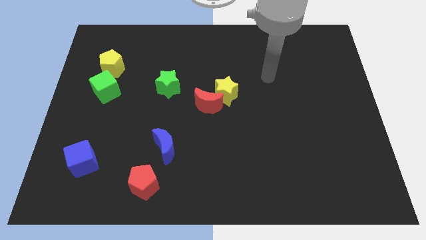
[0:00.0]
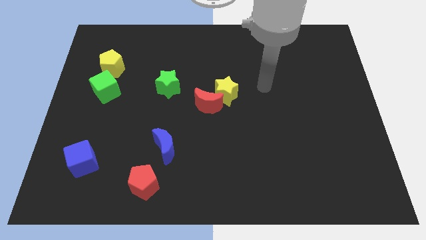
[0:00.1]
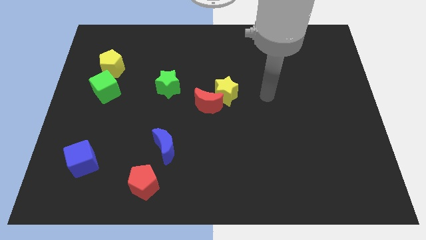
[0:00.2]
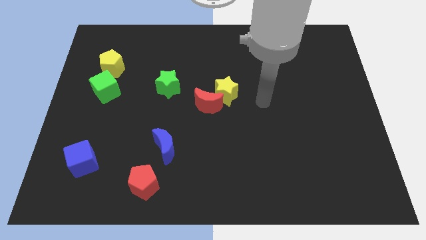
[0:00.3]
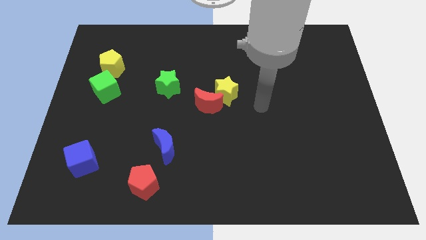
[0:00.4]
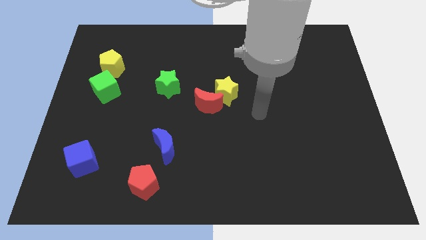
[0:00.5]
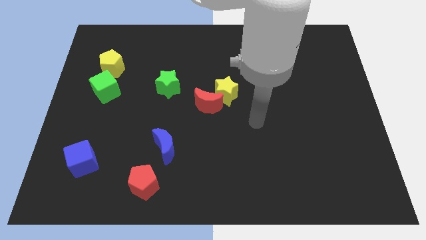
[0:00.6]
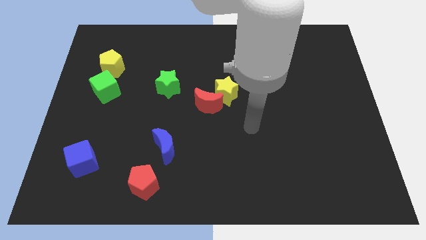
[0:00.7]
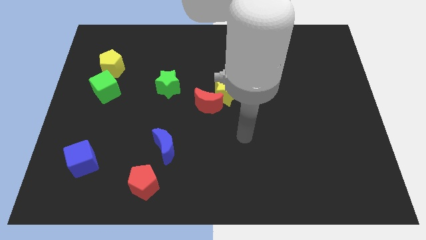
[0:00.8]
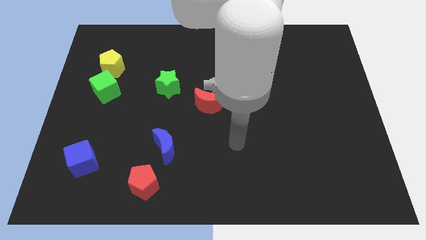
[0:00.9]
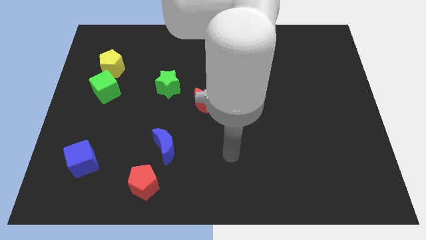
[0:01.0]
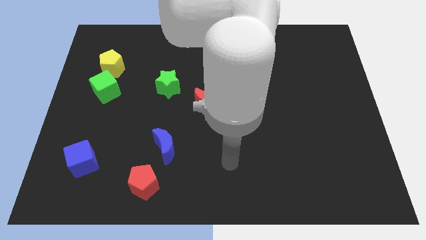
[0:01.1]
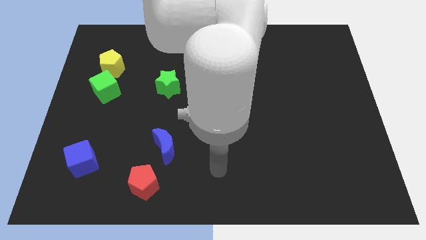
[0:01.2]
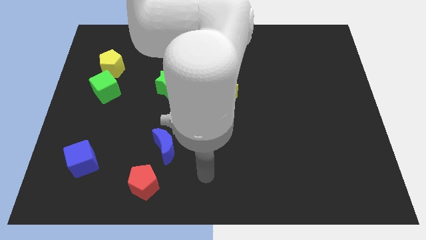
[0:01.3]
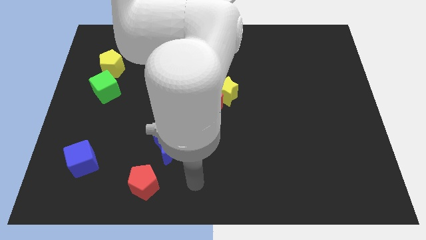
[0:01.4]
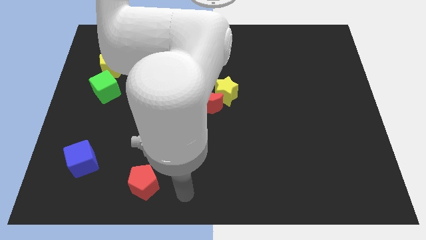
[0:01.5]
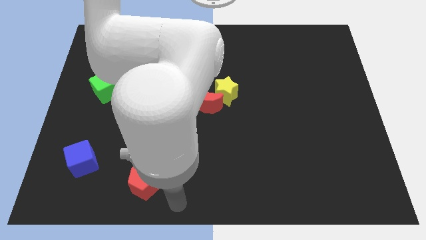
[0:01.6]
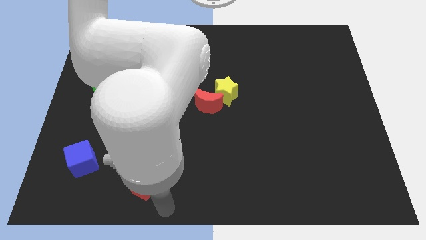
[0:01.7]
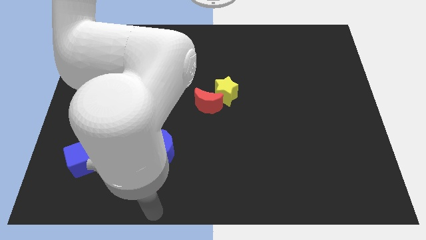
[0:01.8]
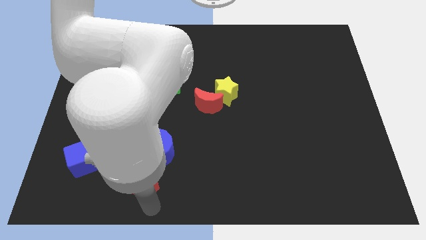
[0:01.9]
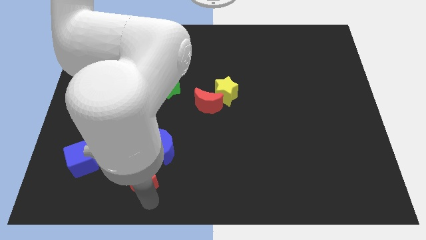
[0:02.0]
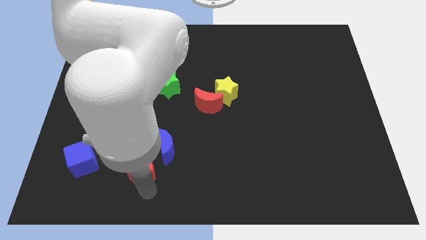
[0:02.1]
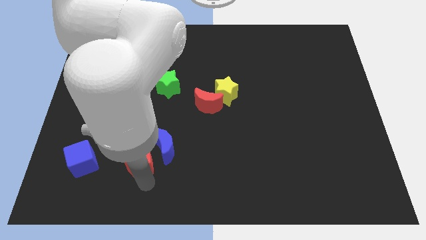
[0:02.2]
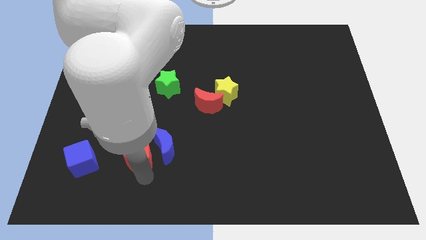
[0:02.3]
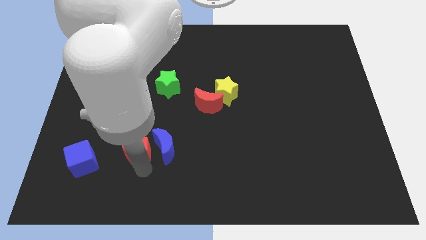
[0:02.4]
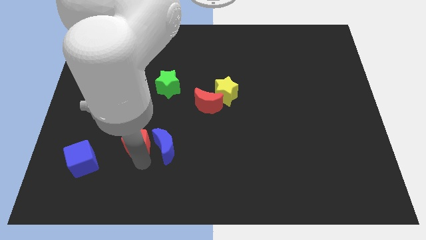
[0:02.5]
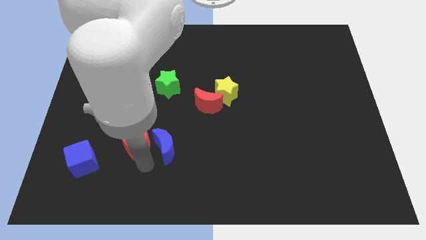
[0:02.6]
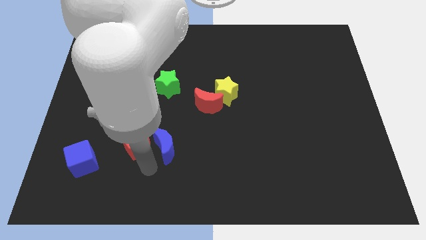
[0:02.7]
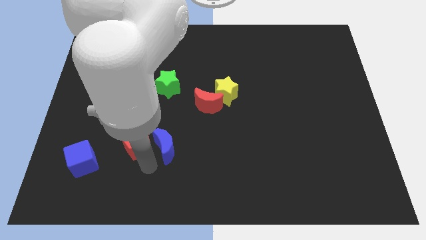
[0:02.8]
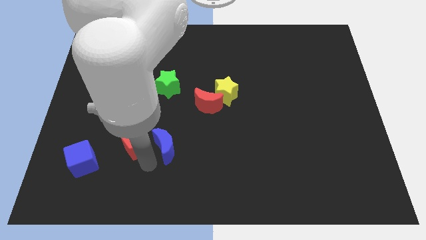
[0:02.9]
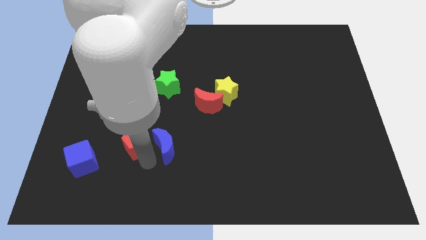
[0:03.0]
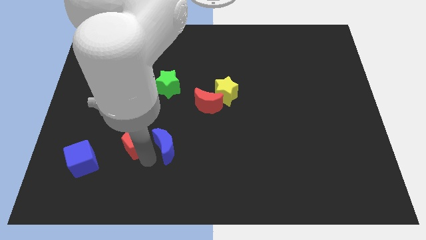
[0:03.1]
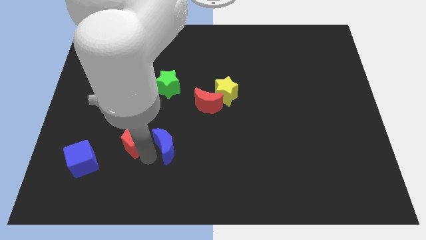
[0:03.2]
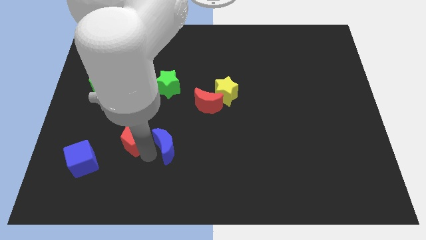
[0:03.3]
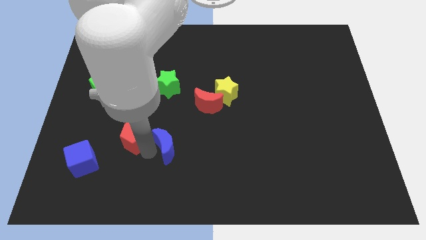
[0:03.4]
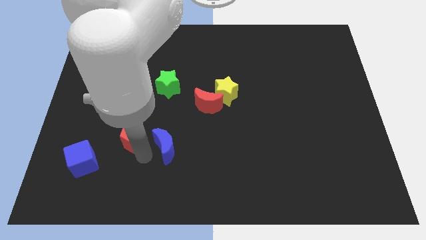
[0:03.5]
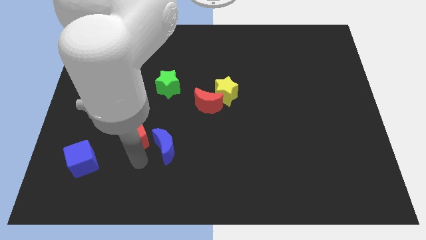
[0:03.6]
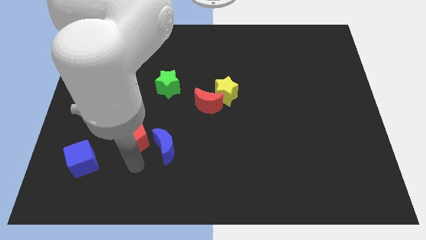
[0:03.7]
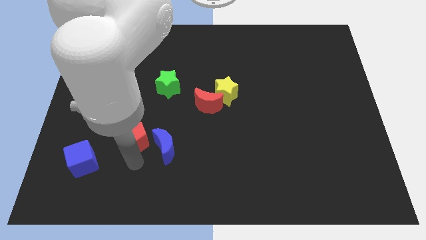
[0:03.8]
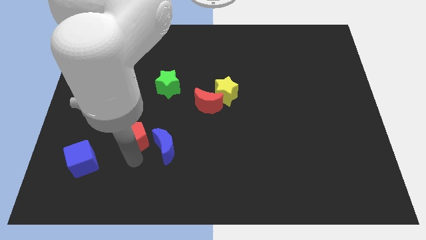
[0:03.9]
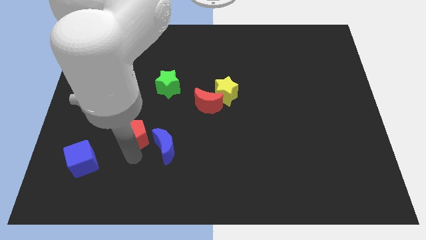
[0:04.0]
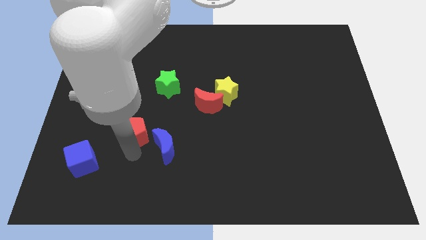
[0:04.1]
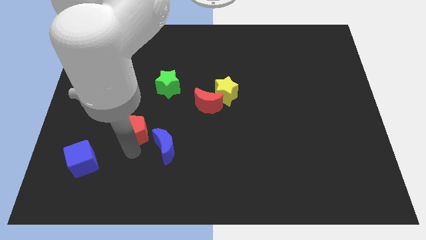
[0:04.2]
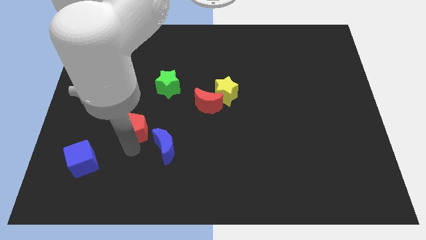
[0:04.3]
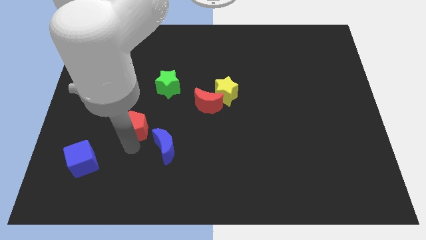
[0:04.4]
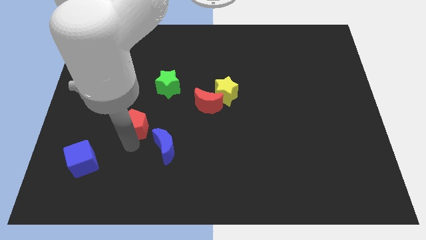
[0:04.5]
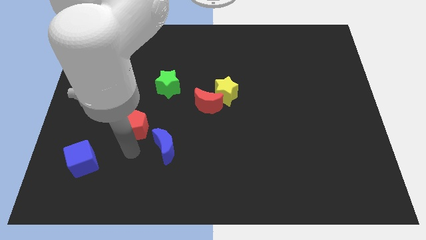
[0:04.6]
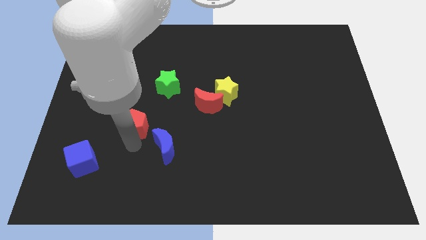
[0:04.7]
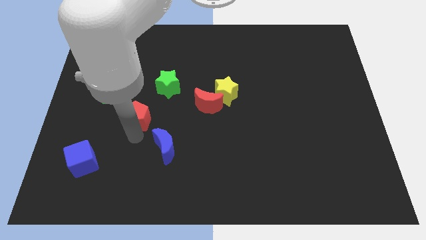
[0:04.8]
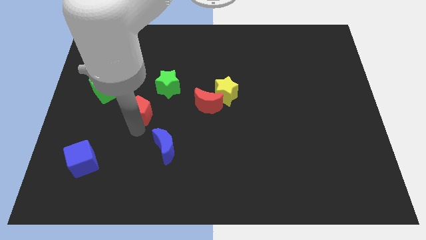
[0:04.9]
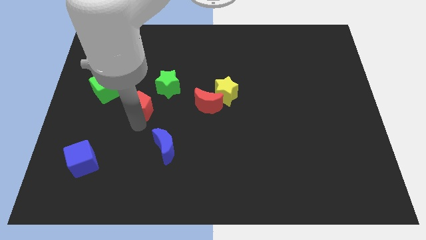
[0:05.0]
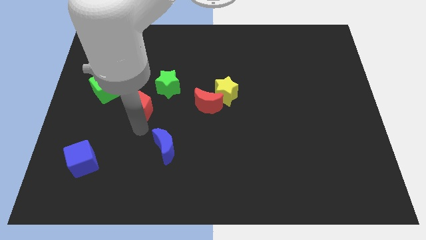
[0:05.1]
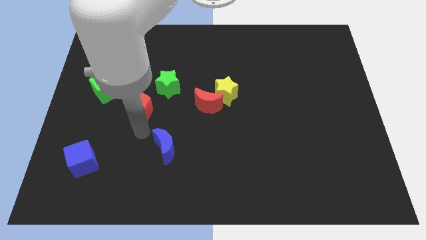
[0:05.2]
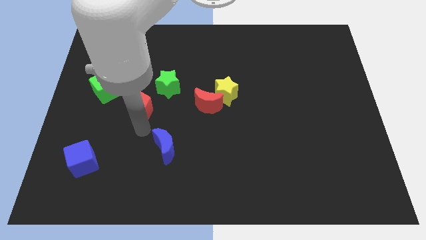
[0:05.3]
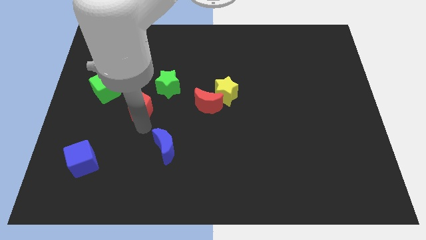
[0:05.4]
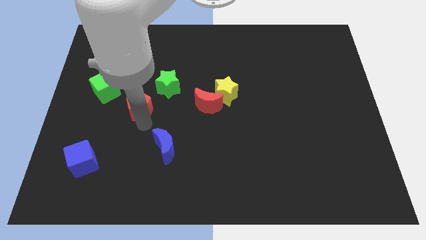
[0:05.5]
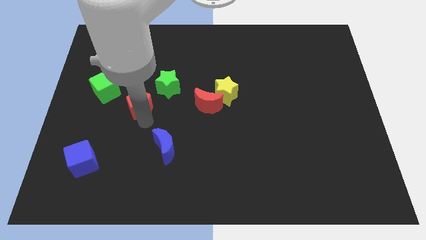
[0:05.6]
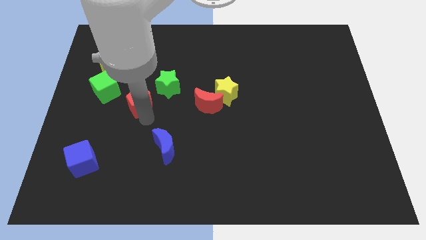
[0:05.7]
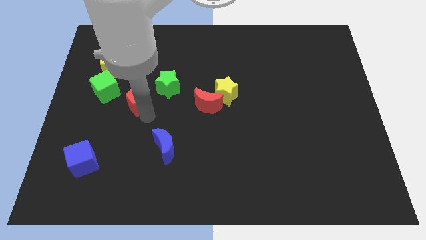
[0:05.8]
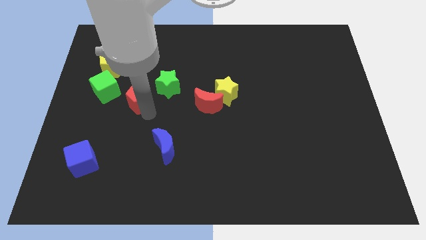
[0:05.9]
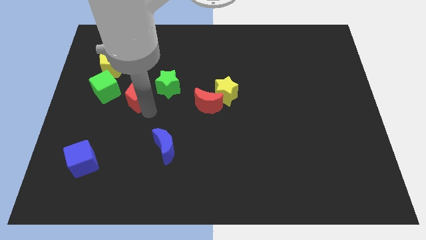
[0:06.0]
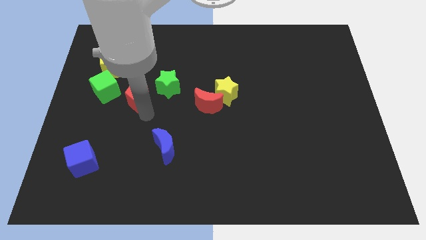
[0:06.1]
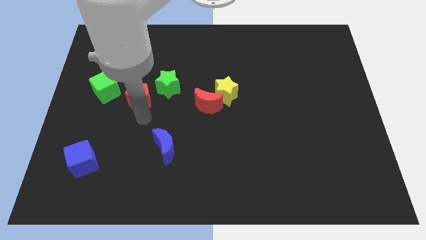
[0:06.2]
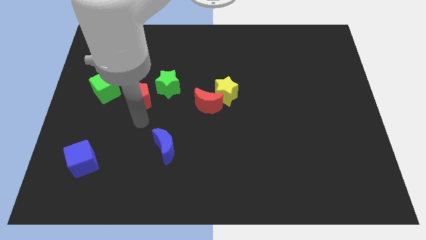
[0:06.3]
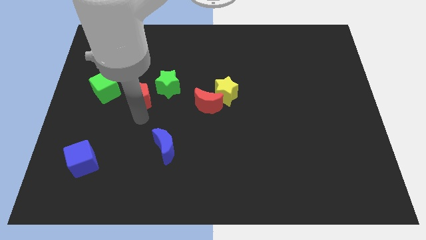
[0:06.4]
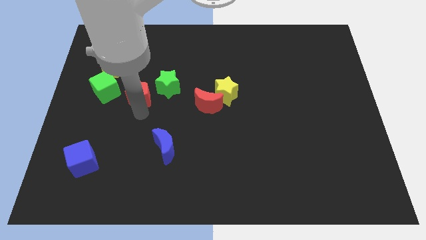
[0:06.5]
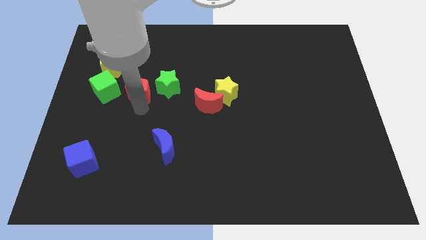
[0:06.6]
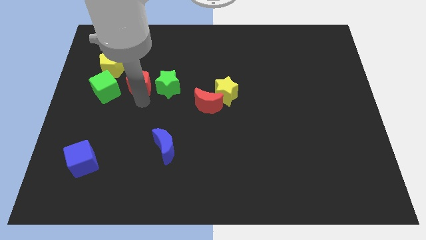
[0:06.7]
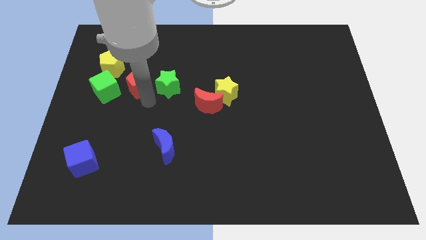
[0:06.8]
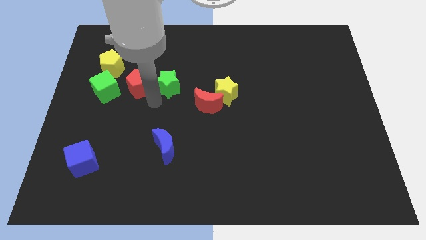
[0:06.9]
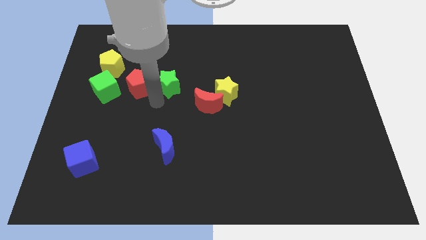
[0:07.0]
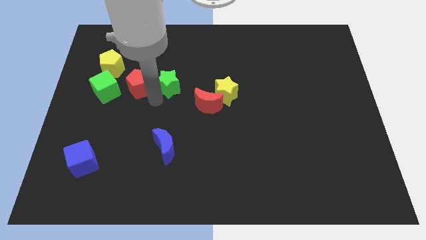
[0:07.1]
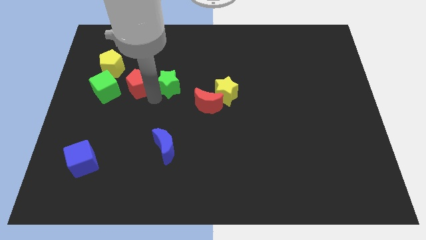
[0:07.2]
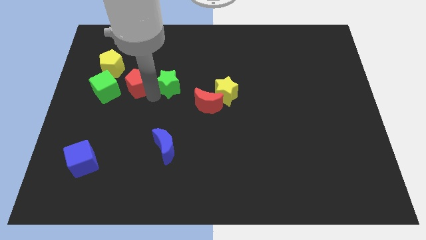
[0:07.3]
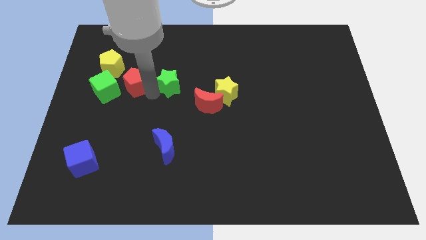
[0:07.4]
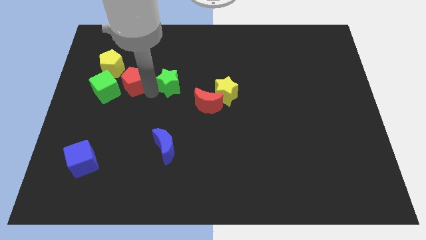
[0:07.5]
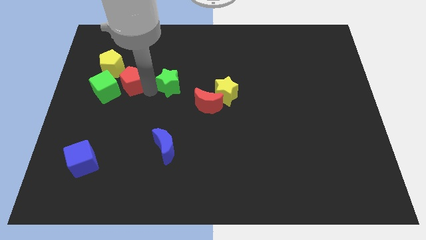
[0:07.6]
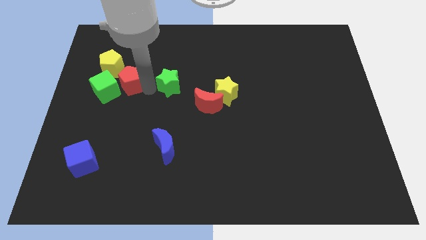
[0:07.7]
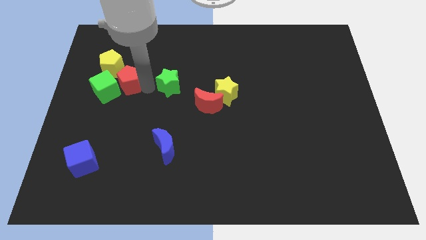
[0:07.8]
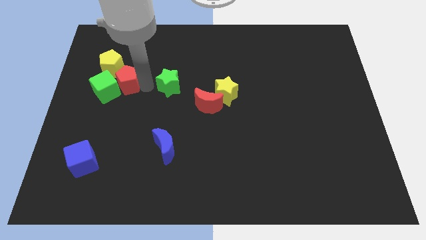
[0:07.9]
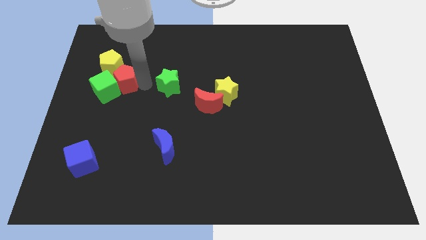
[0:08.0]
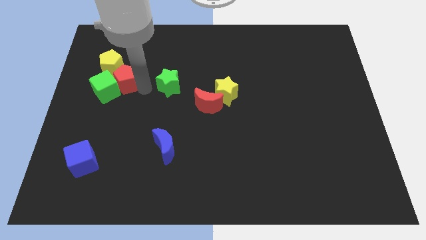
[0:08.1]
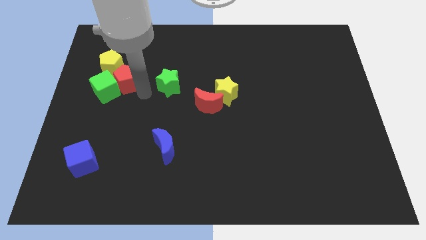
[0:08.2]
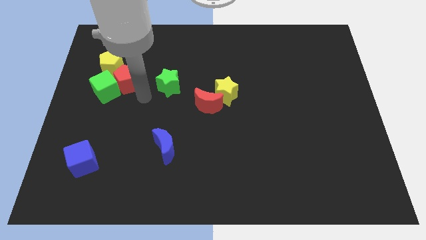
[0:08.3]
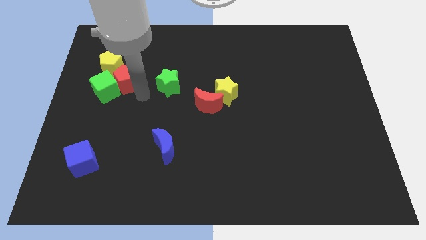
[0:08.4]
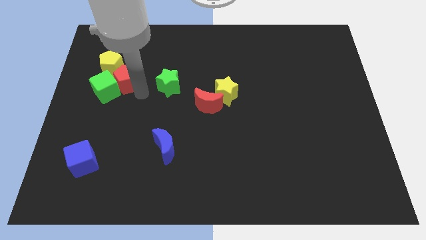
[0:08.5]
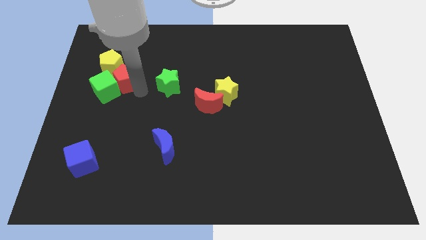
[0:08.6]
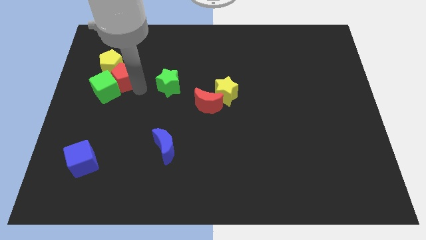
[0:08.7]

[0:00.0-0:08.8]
push the red pentagon close to the yellow pentagon
